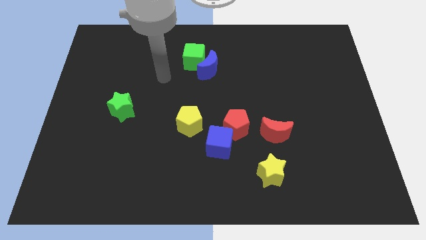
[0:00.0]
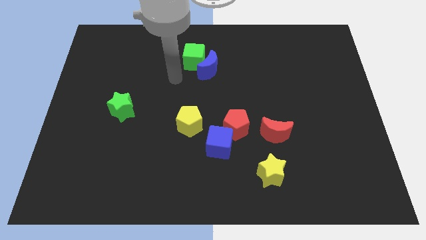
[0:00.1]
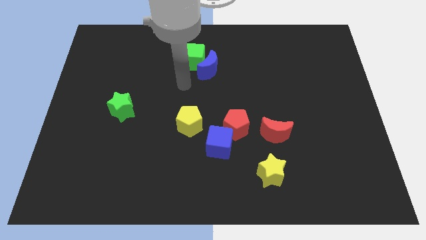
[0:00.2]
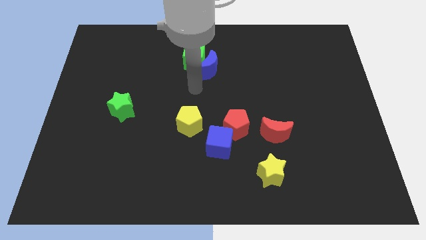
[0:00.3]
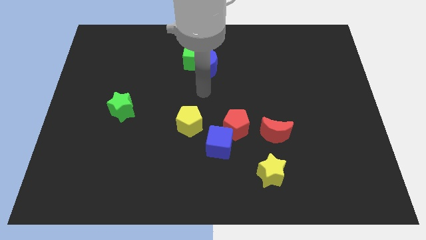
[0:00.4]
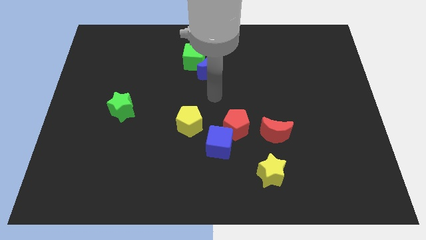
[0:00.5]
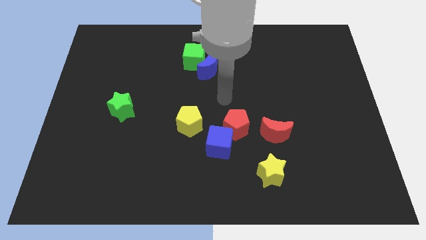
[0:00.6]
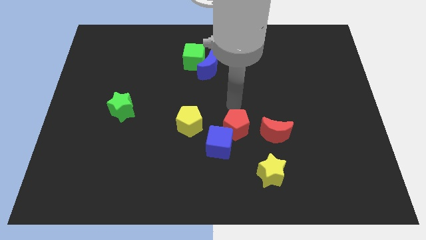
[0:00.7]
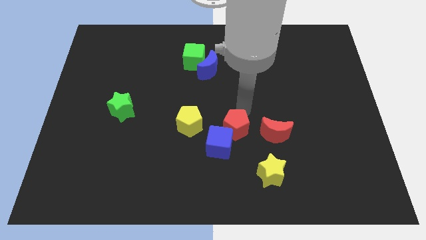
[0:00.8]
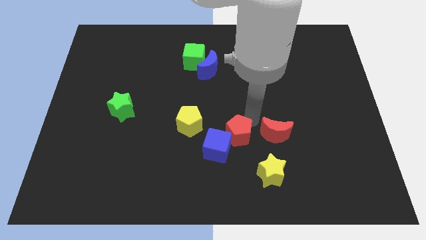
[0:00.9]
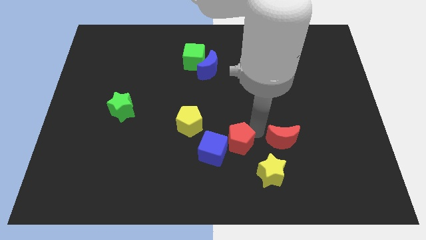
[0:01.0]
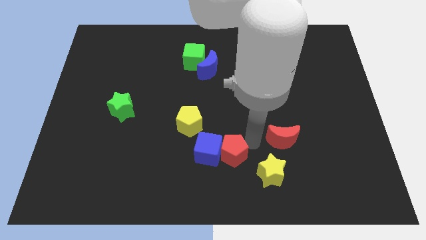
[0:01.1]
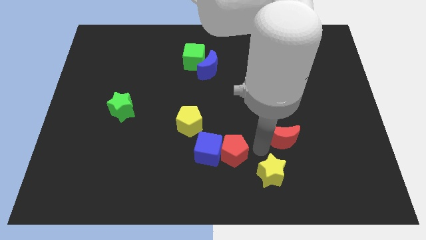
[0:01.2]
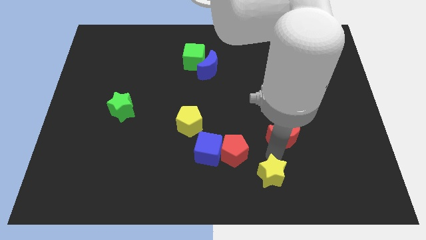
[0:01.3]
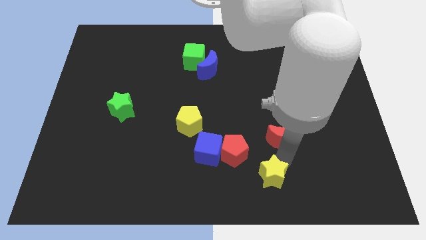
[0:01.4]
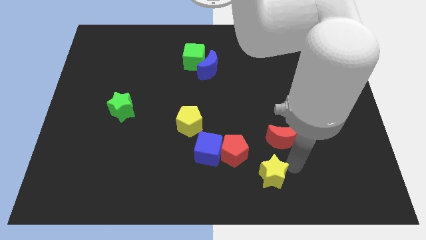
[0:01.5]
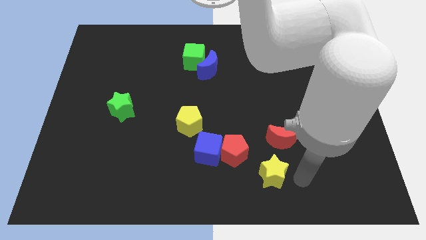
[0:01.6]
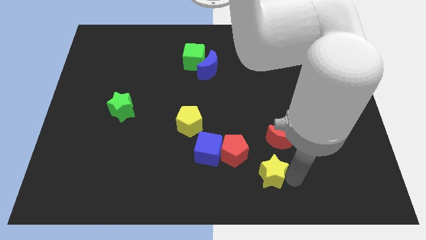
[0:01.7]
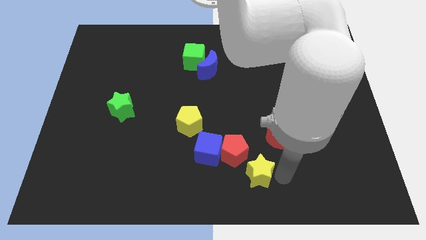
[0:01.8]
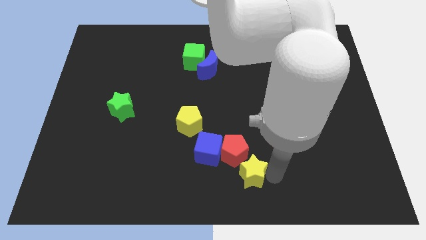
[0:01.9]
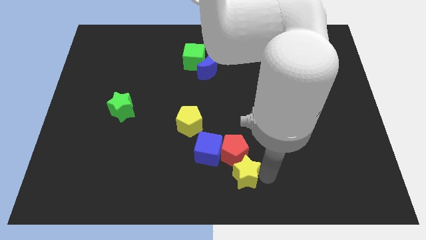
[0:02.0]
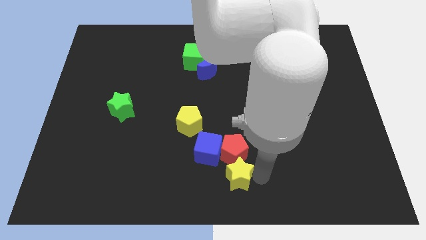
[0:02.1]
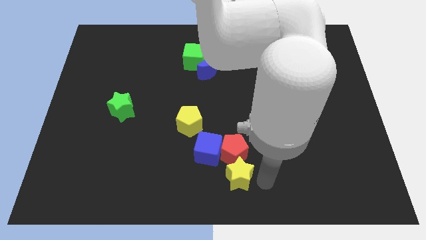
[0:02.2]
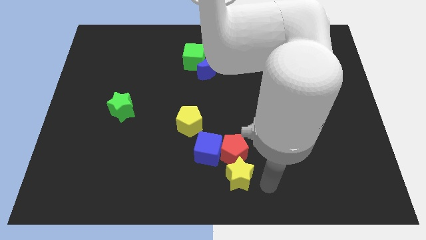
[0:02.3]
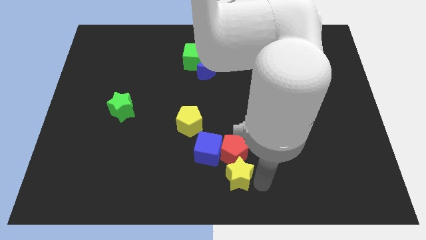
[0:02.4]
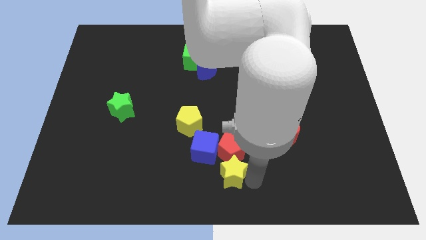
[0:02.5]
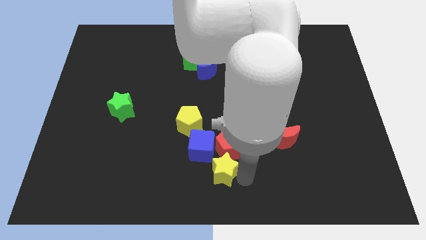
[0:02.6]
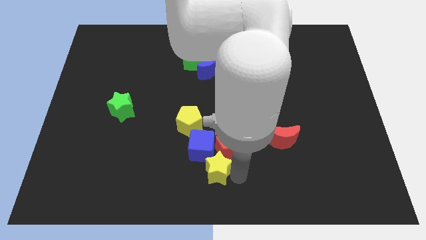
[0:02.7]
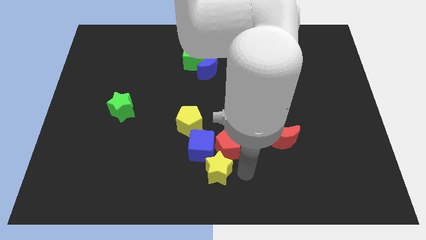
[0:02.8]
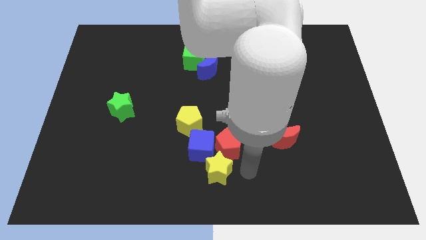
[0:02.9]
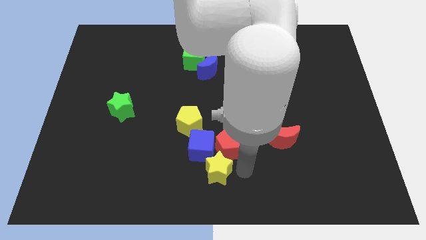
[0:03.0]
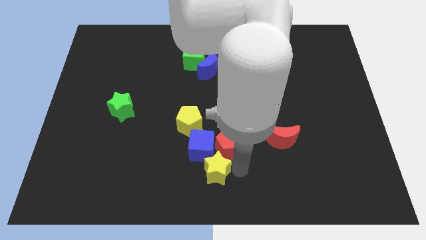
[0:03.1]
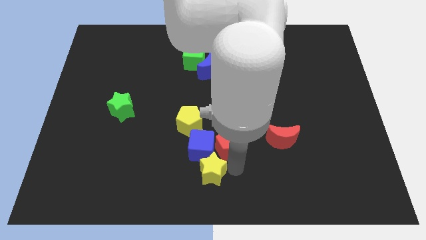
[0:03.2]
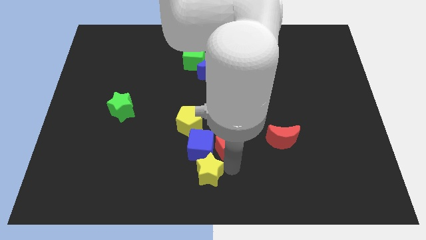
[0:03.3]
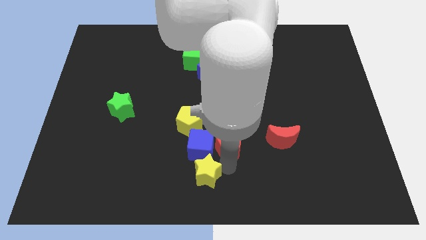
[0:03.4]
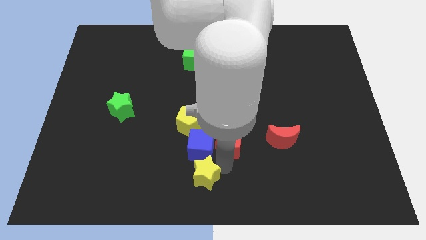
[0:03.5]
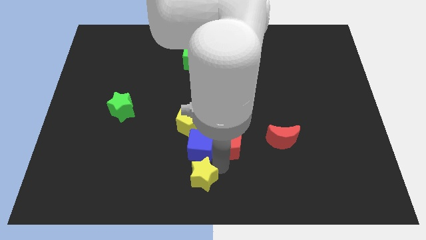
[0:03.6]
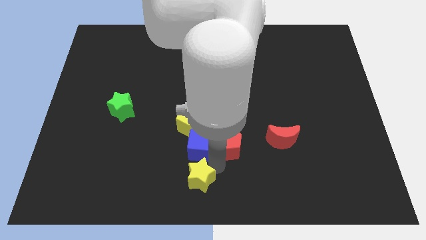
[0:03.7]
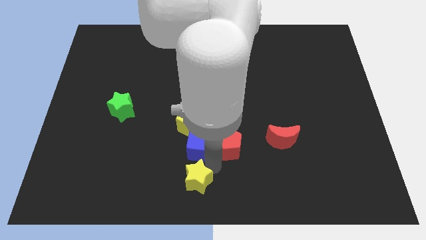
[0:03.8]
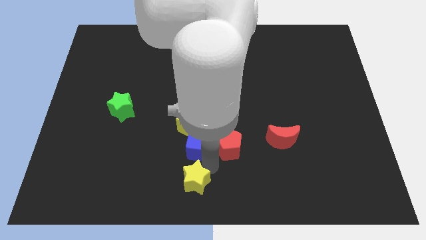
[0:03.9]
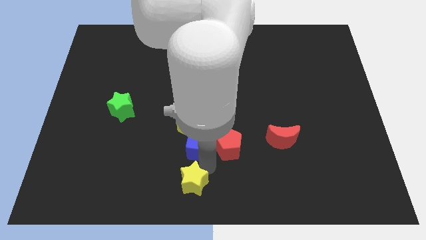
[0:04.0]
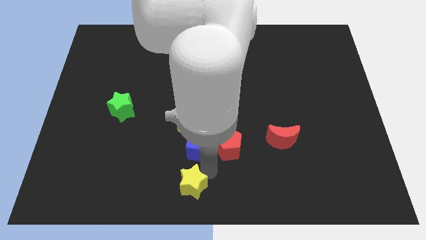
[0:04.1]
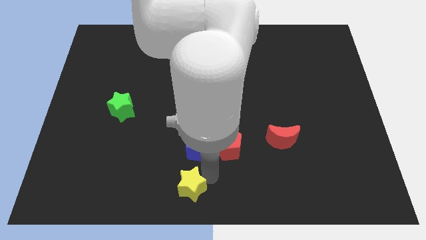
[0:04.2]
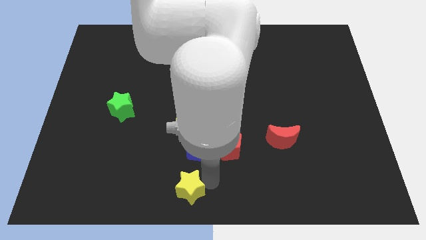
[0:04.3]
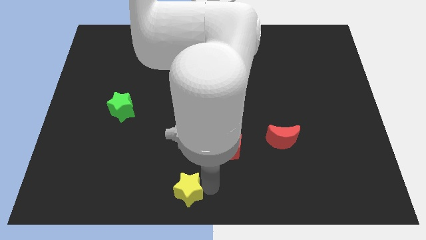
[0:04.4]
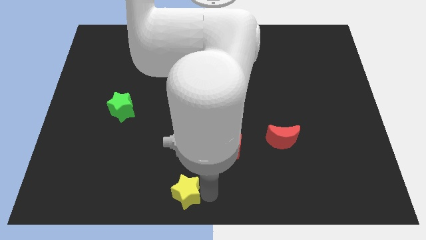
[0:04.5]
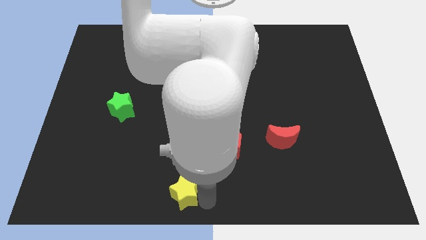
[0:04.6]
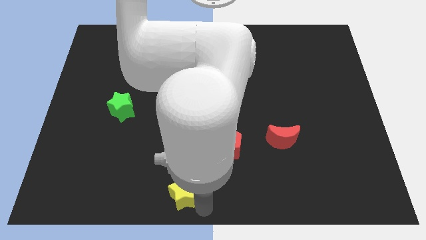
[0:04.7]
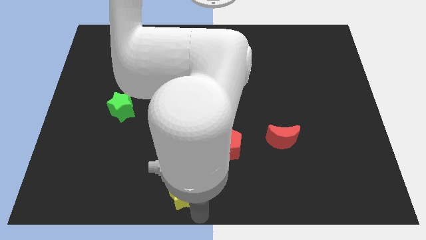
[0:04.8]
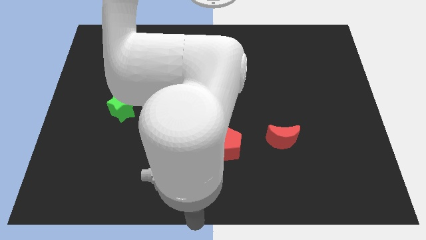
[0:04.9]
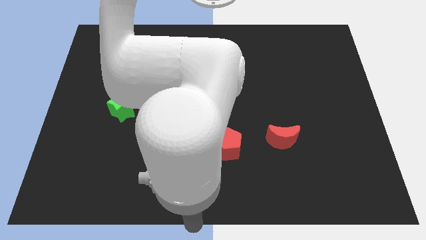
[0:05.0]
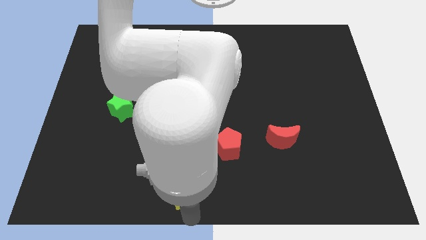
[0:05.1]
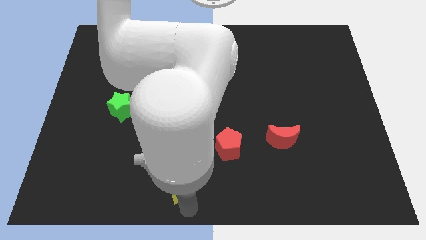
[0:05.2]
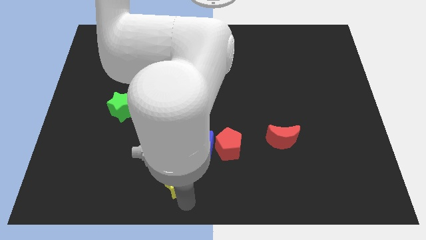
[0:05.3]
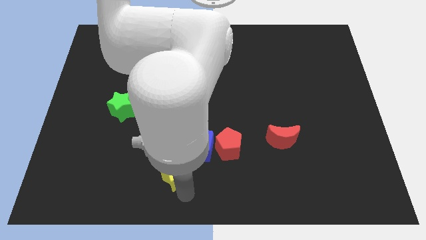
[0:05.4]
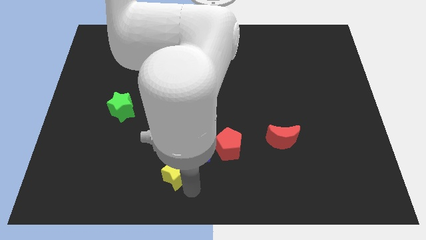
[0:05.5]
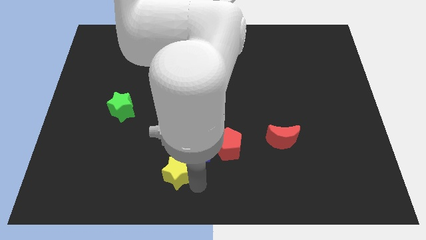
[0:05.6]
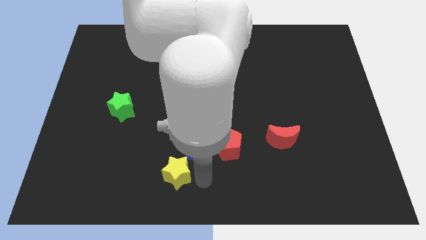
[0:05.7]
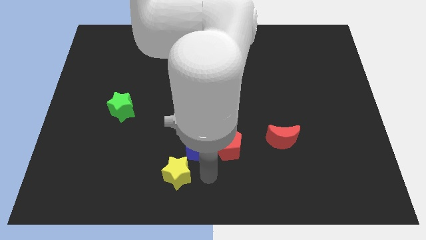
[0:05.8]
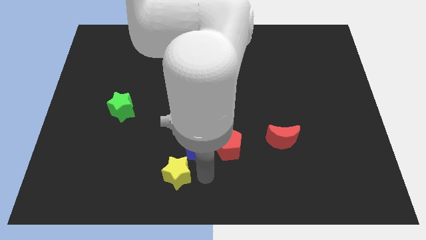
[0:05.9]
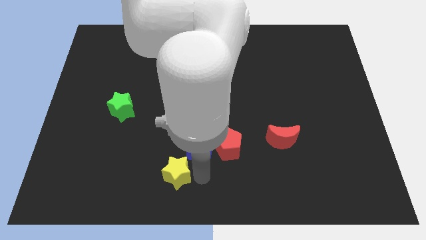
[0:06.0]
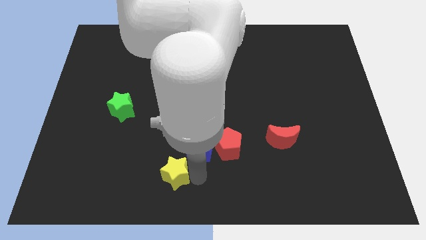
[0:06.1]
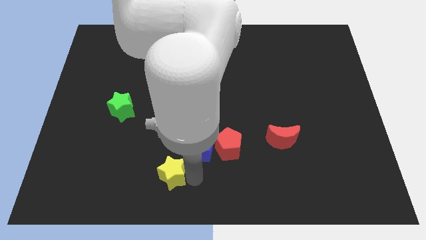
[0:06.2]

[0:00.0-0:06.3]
push the yellow star left

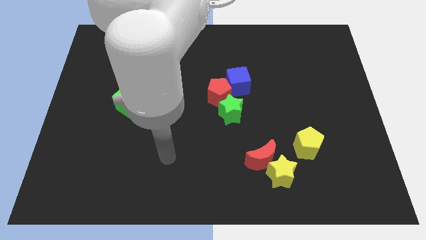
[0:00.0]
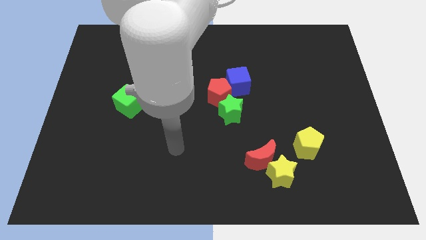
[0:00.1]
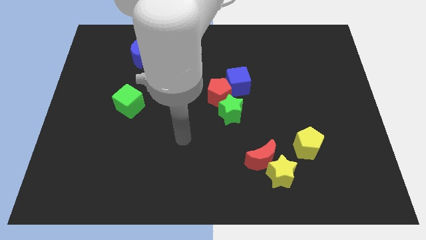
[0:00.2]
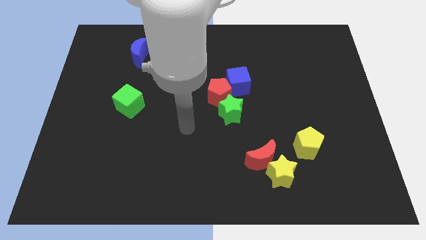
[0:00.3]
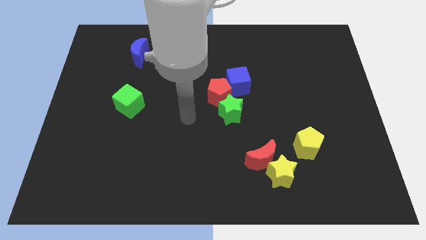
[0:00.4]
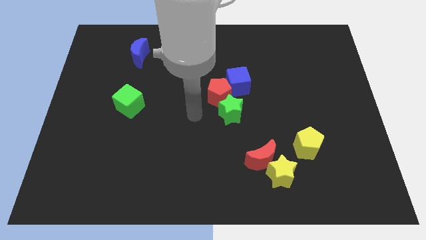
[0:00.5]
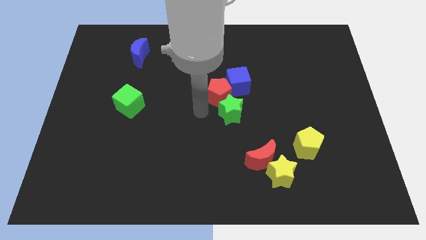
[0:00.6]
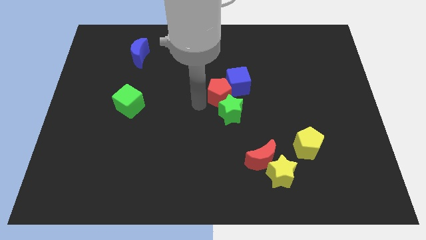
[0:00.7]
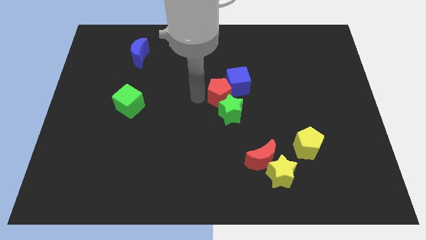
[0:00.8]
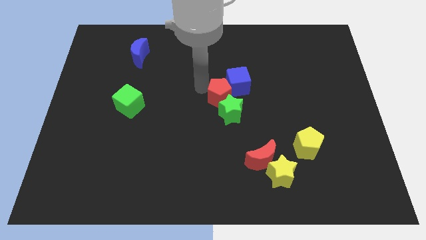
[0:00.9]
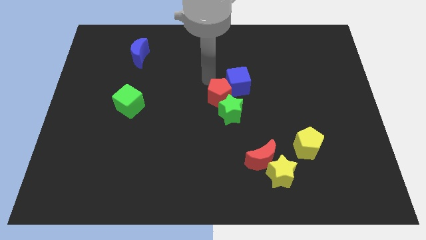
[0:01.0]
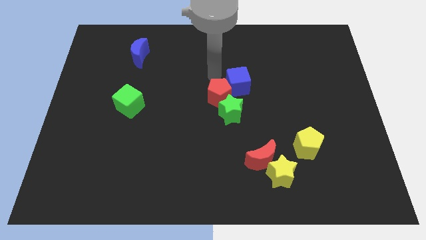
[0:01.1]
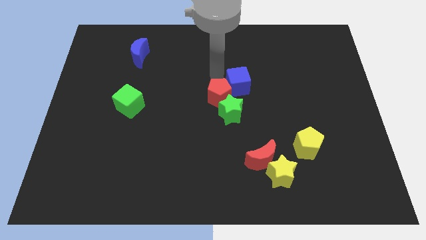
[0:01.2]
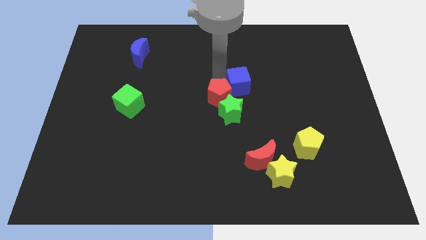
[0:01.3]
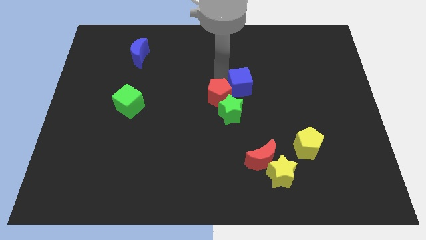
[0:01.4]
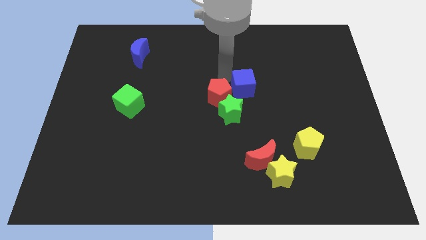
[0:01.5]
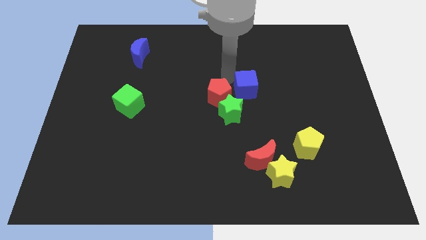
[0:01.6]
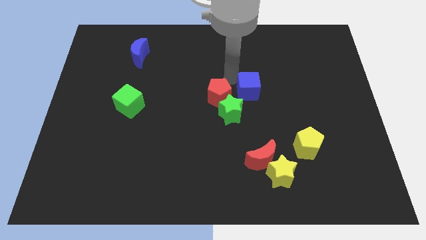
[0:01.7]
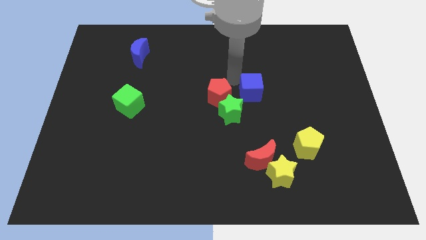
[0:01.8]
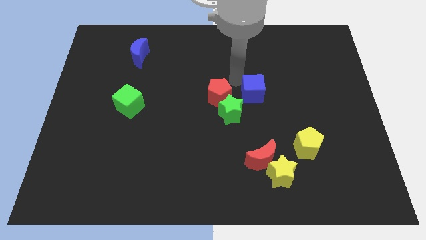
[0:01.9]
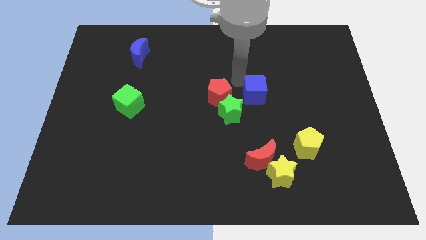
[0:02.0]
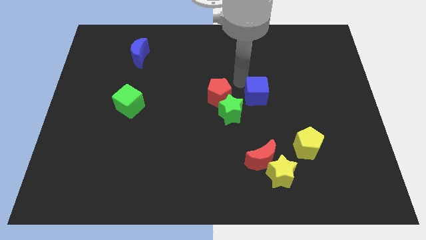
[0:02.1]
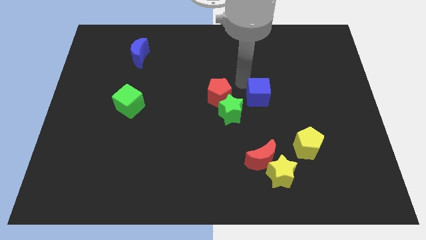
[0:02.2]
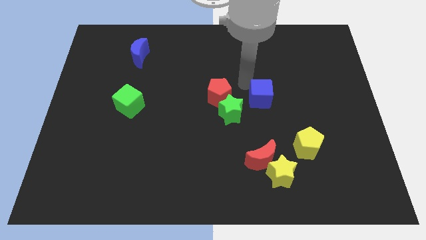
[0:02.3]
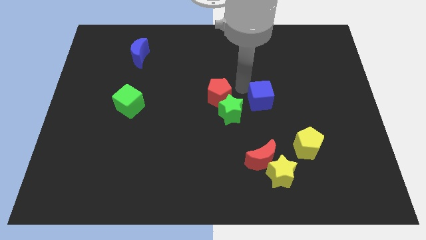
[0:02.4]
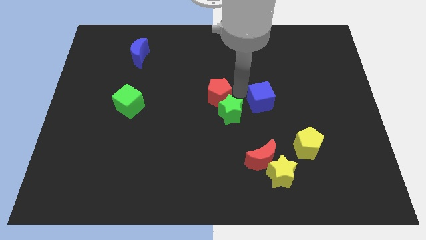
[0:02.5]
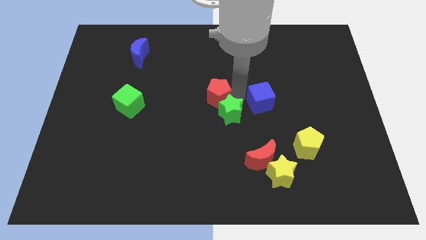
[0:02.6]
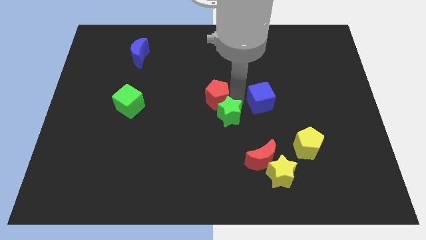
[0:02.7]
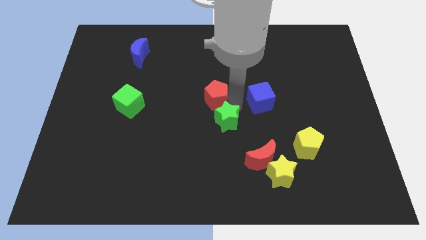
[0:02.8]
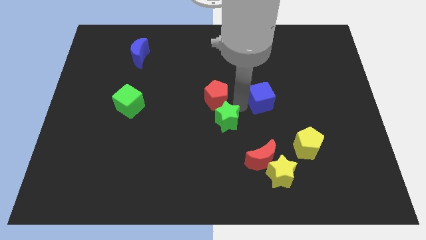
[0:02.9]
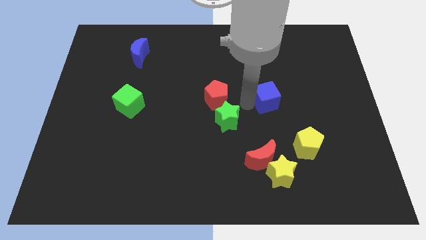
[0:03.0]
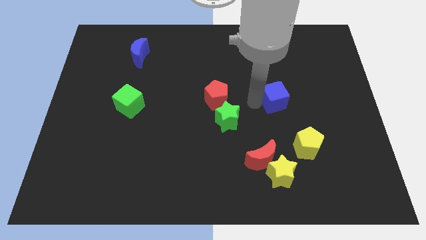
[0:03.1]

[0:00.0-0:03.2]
slide the blue cube right a bit
